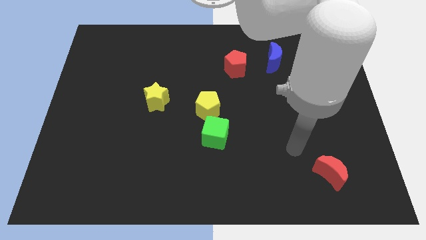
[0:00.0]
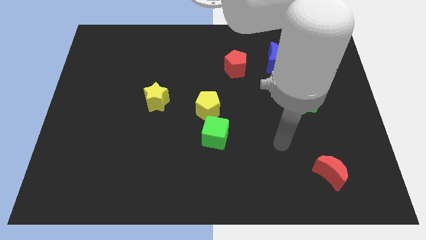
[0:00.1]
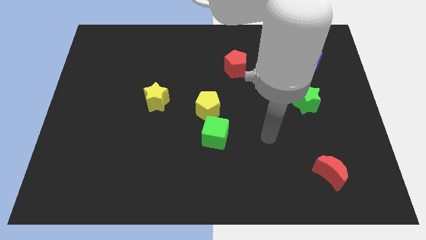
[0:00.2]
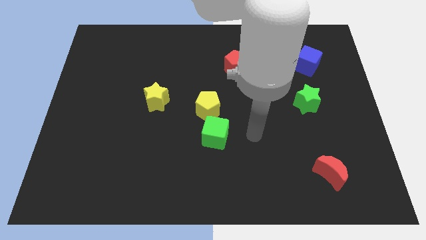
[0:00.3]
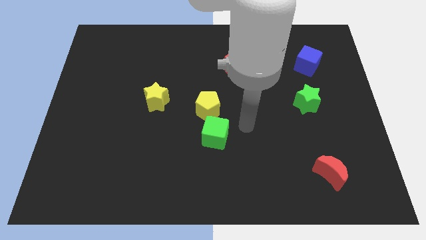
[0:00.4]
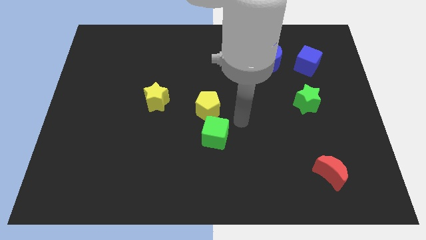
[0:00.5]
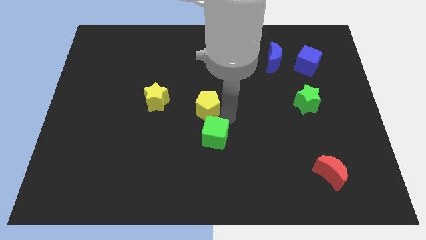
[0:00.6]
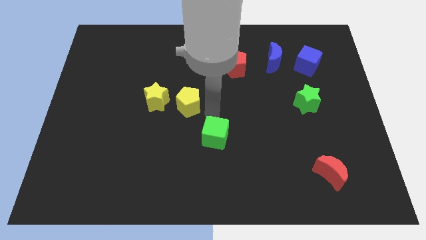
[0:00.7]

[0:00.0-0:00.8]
pull the green cube apart from the yellow pentagon

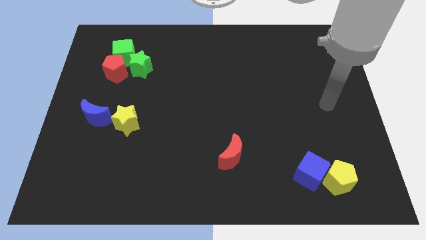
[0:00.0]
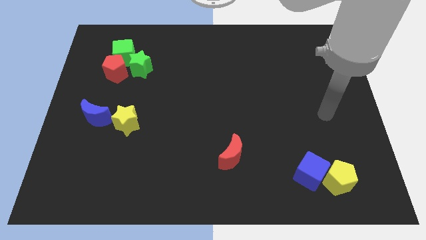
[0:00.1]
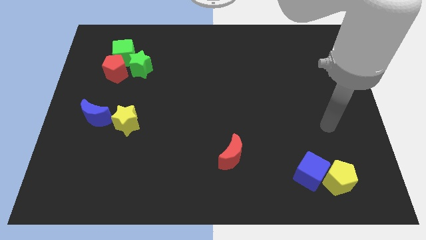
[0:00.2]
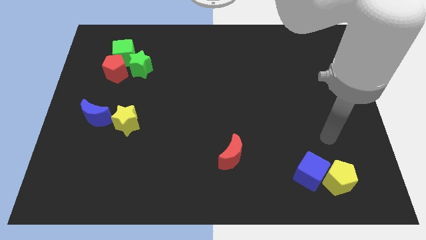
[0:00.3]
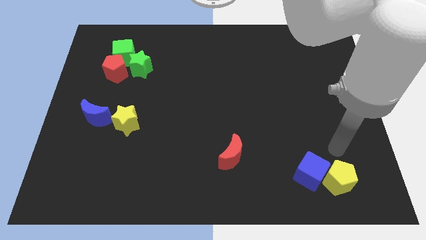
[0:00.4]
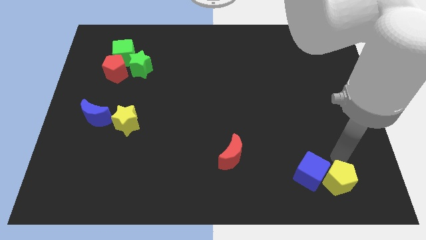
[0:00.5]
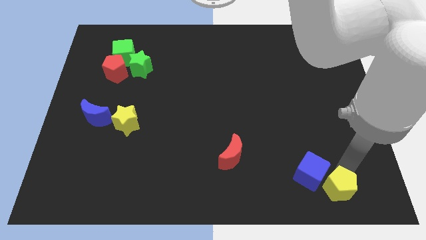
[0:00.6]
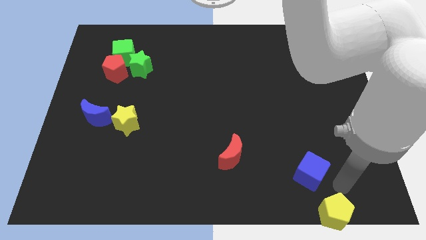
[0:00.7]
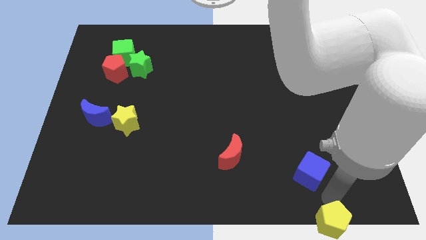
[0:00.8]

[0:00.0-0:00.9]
move the blue cube away from the yellow pentagon

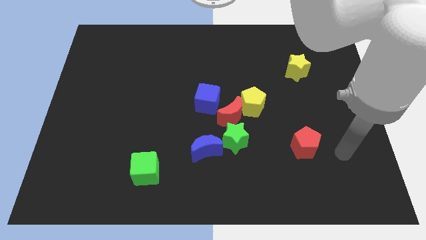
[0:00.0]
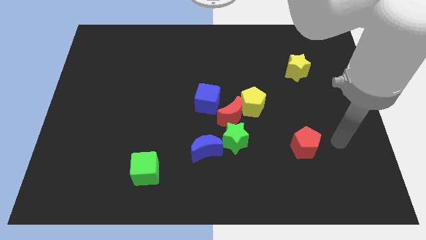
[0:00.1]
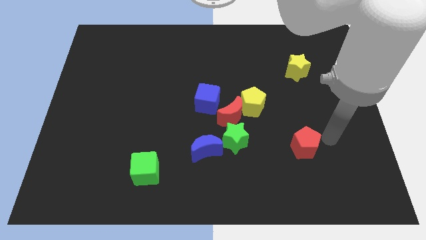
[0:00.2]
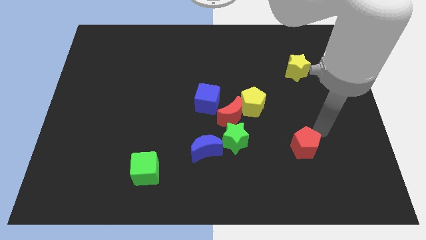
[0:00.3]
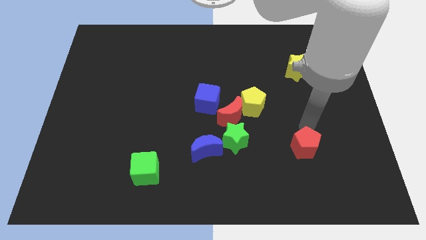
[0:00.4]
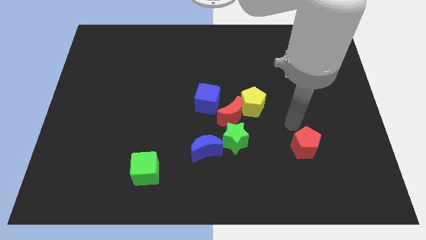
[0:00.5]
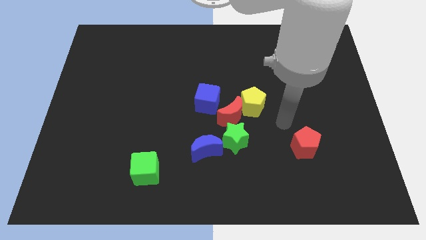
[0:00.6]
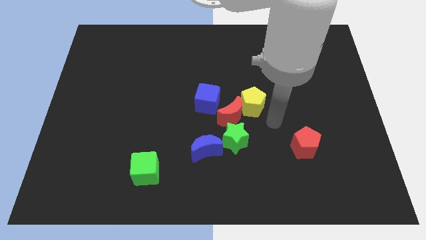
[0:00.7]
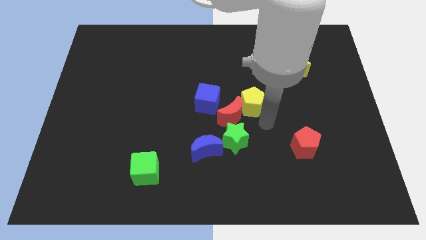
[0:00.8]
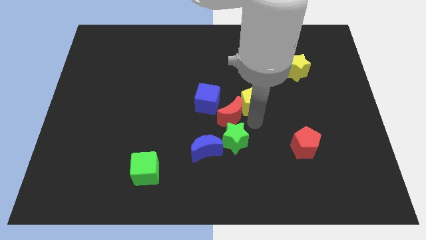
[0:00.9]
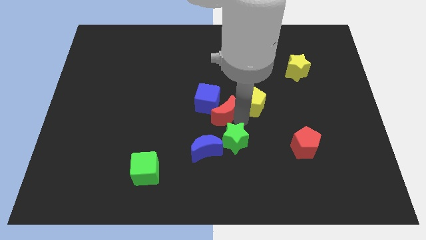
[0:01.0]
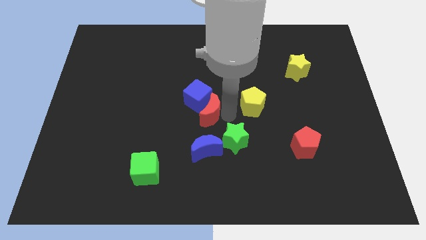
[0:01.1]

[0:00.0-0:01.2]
move the yellow pentagon away from the red moon

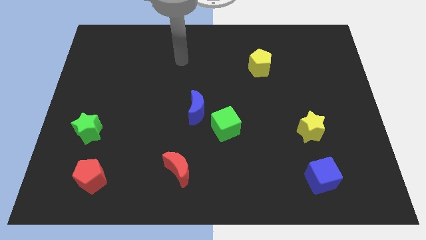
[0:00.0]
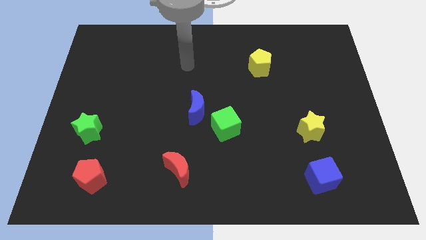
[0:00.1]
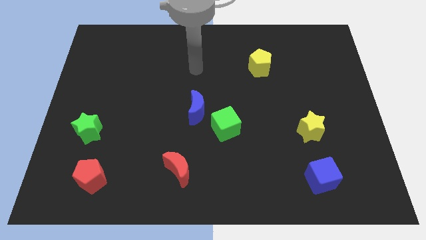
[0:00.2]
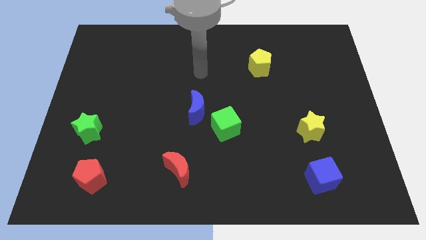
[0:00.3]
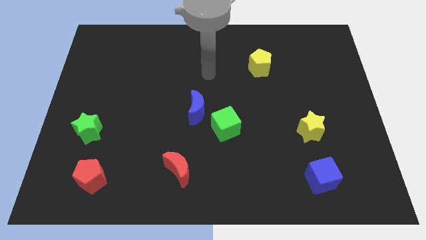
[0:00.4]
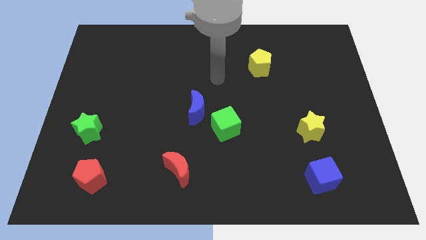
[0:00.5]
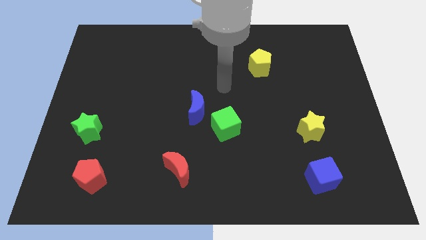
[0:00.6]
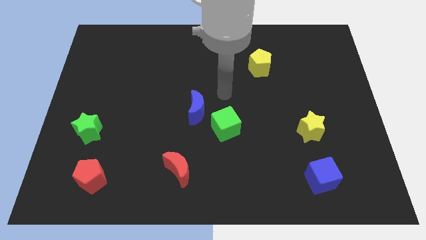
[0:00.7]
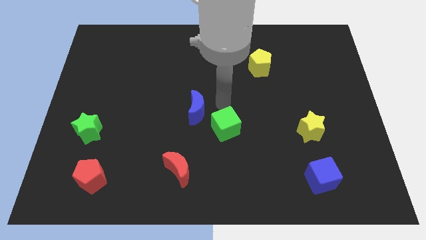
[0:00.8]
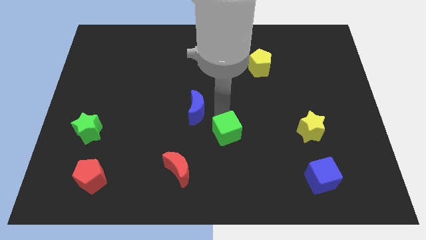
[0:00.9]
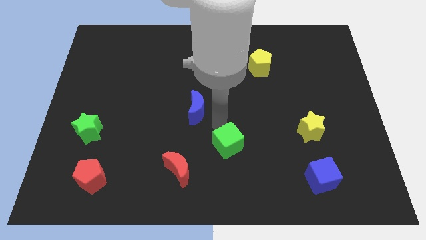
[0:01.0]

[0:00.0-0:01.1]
pull the blue moon apart from the green cube

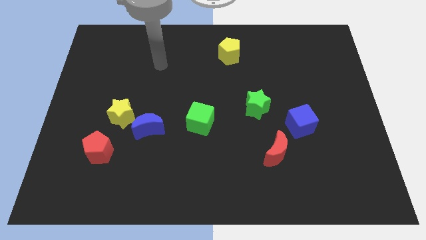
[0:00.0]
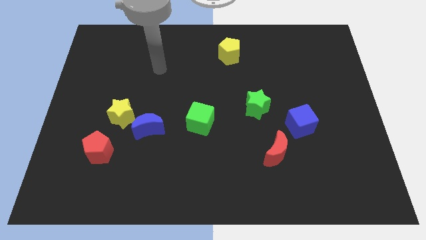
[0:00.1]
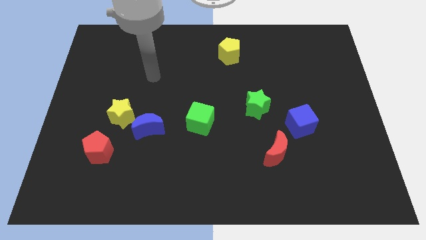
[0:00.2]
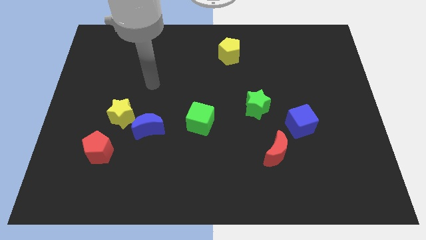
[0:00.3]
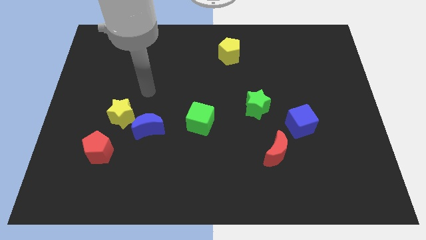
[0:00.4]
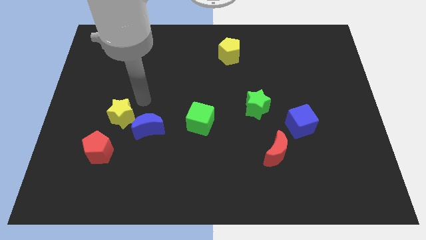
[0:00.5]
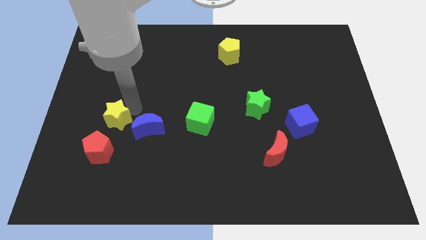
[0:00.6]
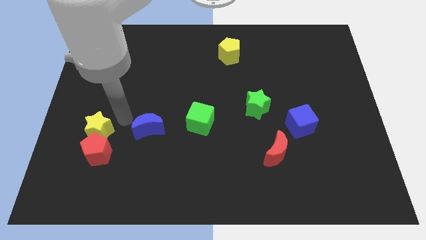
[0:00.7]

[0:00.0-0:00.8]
move the blue moon away from the yellow star

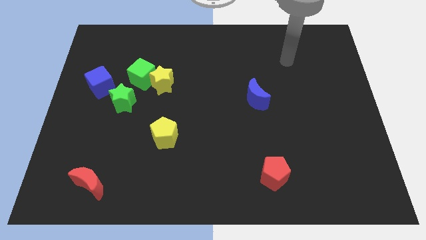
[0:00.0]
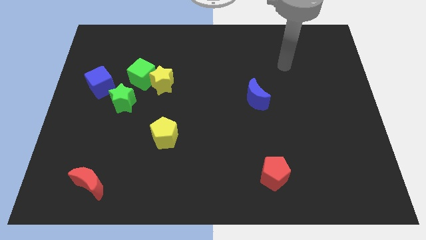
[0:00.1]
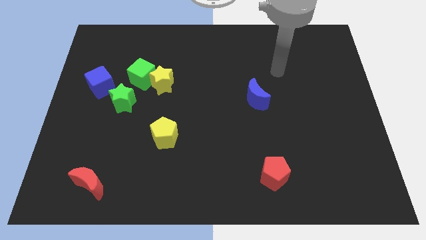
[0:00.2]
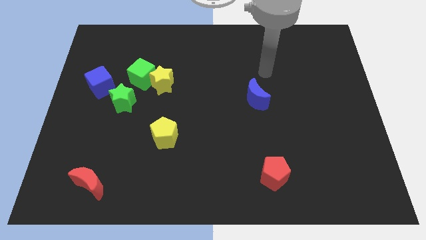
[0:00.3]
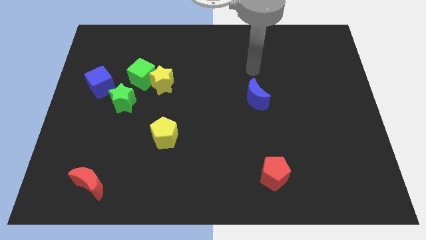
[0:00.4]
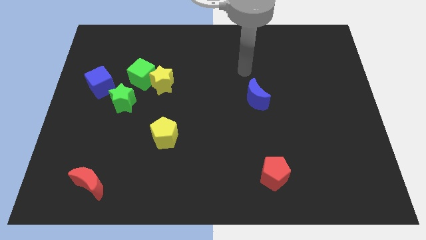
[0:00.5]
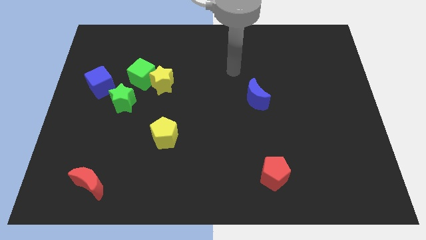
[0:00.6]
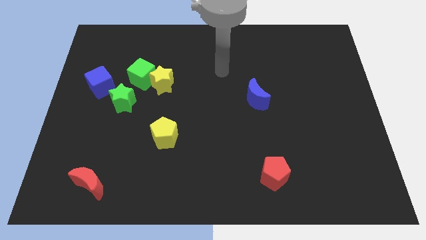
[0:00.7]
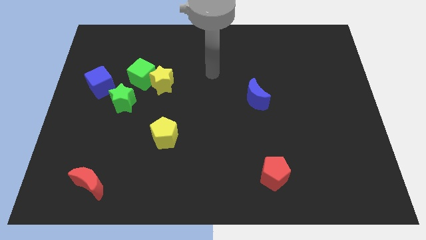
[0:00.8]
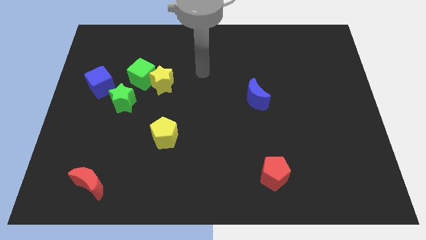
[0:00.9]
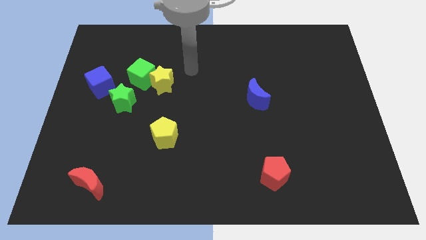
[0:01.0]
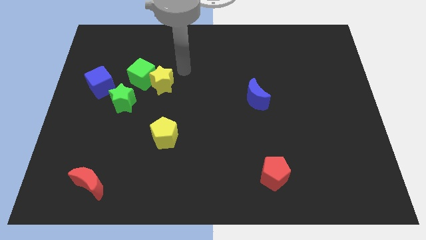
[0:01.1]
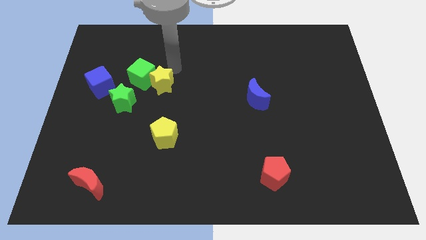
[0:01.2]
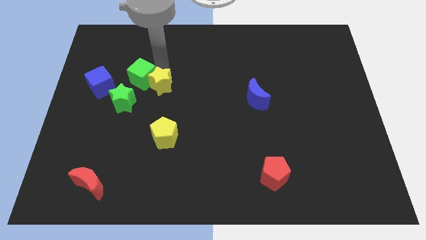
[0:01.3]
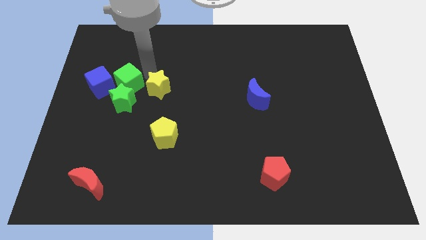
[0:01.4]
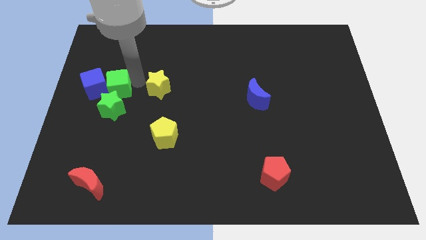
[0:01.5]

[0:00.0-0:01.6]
separate the yellow star from the green cube

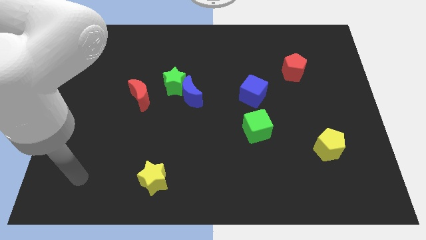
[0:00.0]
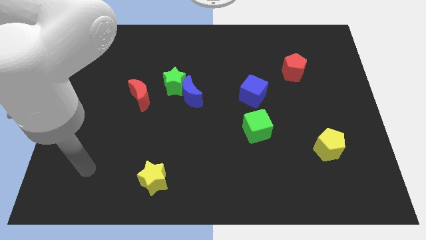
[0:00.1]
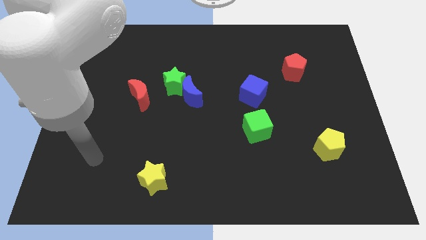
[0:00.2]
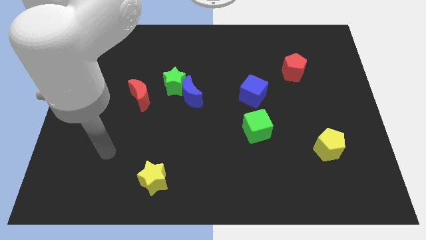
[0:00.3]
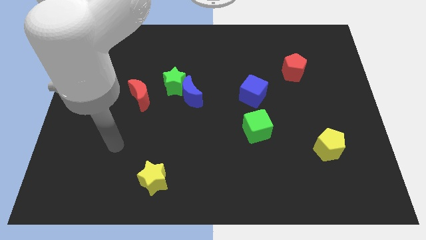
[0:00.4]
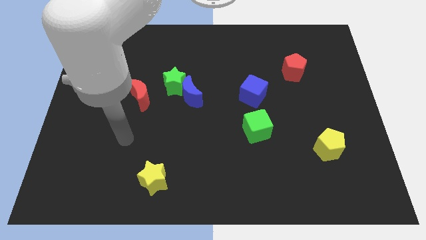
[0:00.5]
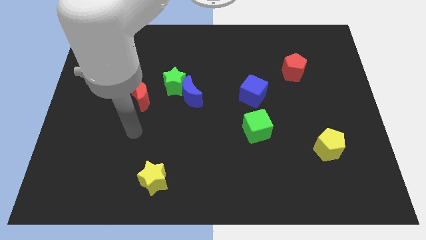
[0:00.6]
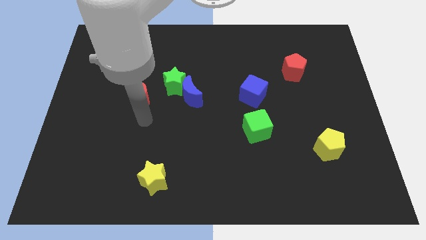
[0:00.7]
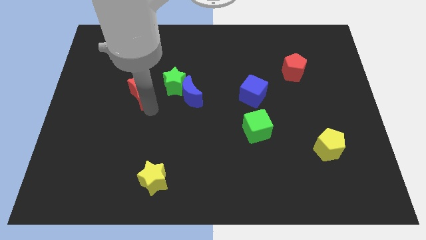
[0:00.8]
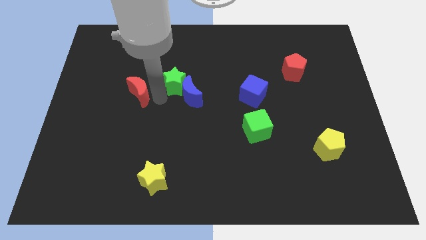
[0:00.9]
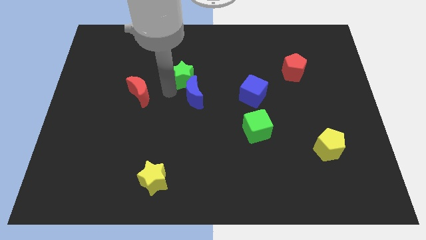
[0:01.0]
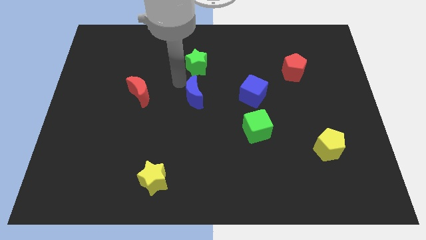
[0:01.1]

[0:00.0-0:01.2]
separate the blue moon from the green star

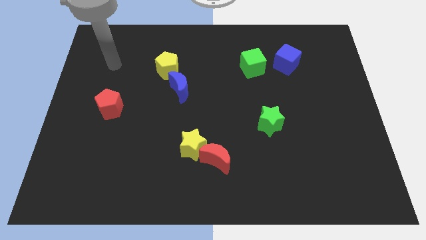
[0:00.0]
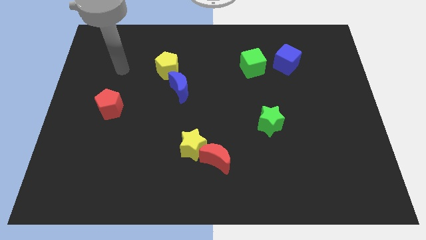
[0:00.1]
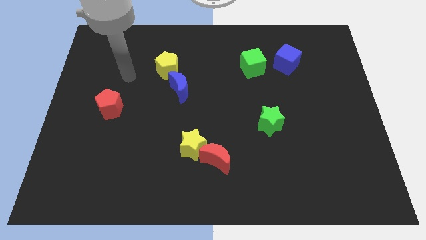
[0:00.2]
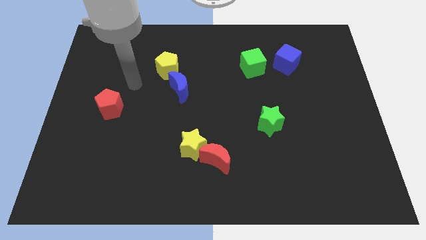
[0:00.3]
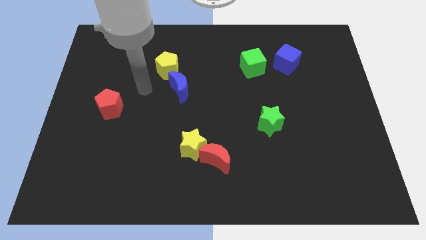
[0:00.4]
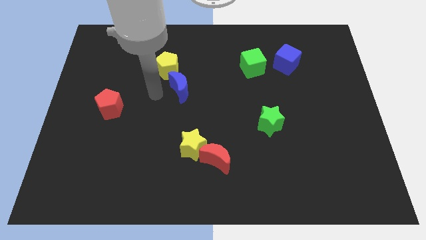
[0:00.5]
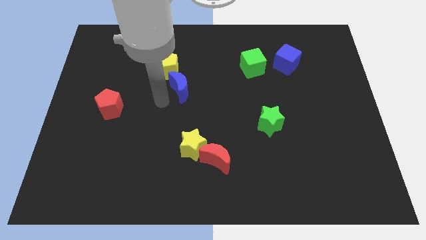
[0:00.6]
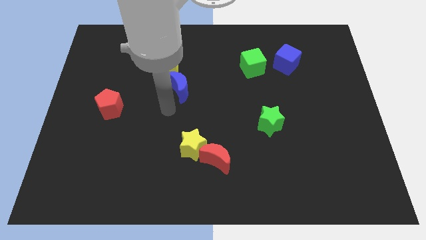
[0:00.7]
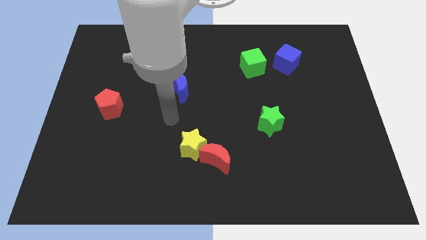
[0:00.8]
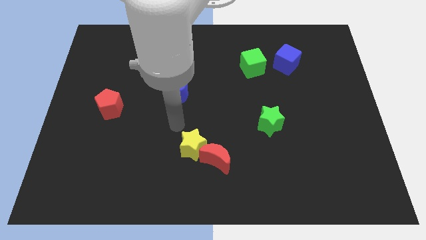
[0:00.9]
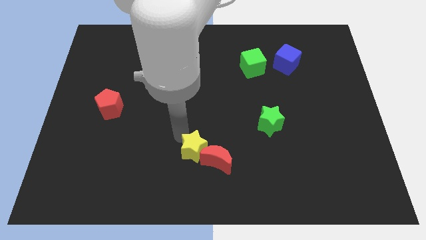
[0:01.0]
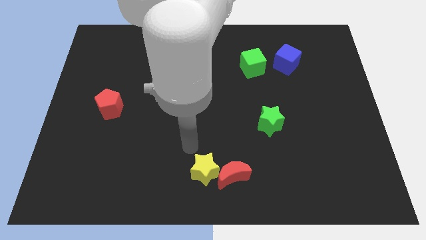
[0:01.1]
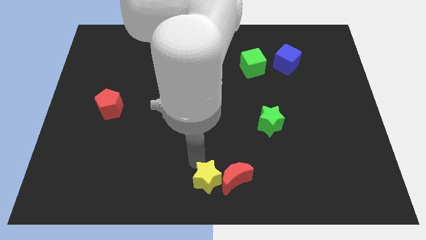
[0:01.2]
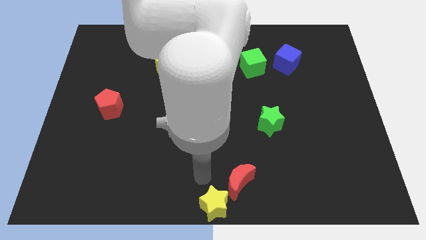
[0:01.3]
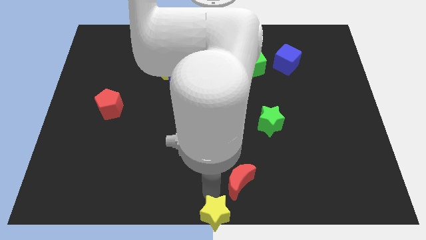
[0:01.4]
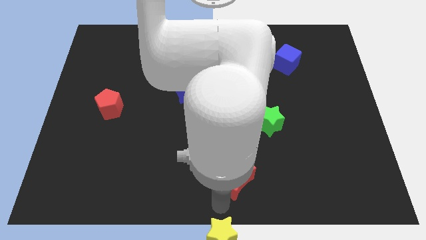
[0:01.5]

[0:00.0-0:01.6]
move the red moon away from the yellow star
